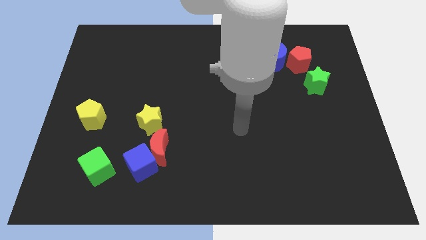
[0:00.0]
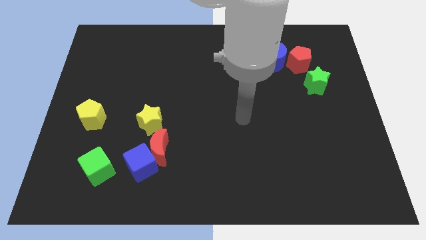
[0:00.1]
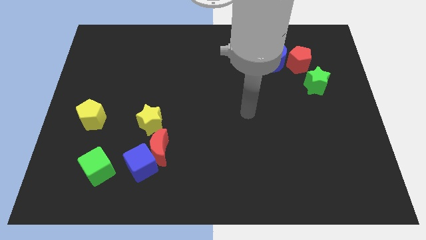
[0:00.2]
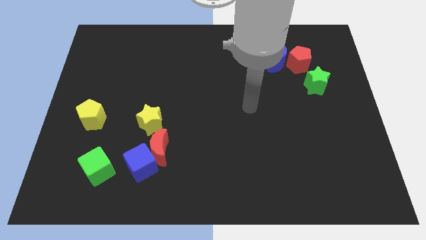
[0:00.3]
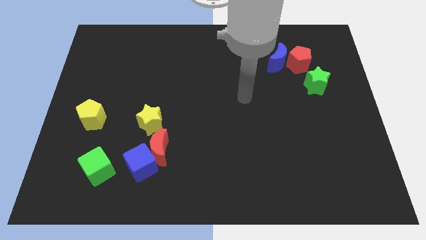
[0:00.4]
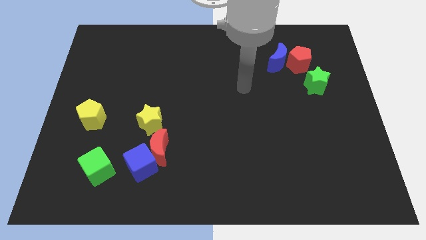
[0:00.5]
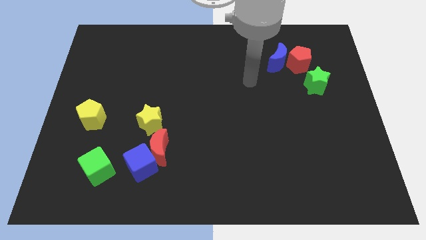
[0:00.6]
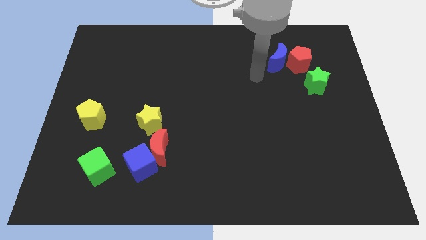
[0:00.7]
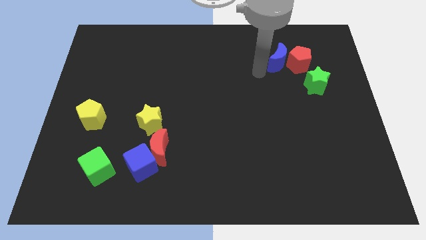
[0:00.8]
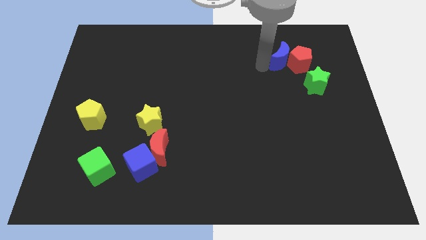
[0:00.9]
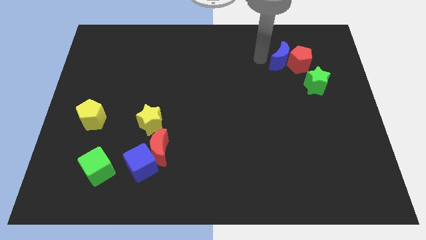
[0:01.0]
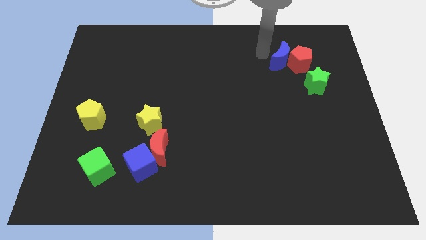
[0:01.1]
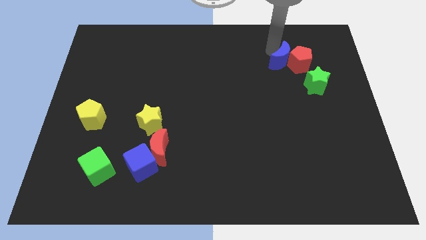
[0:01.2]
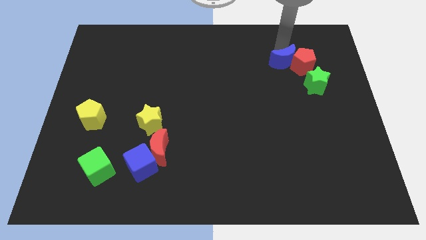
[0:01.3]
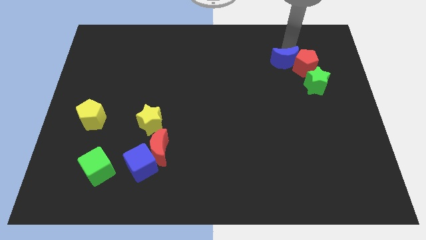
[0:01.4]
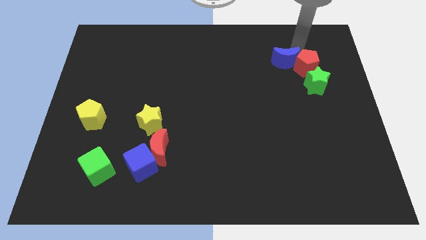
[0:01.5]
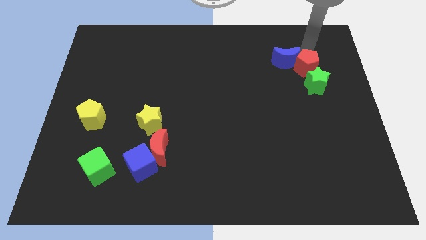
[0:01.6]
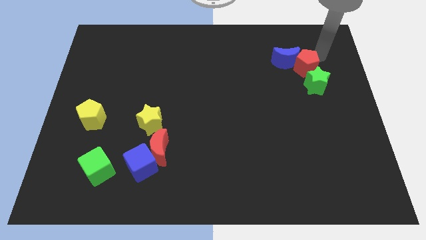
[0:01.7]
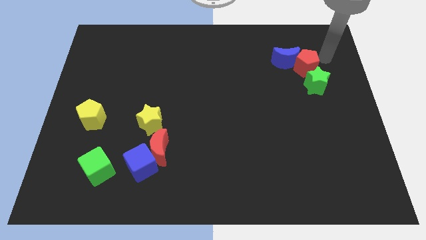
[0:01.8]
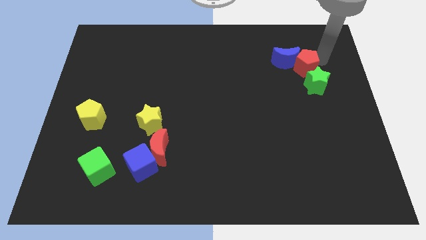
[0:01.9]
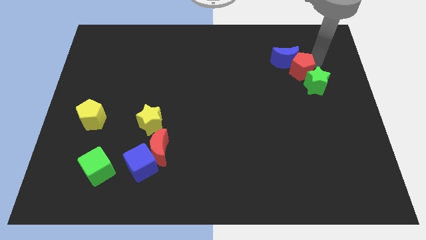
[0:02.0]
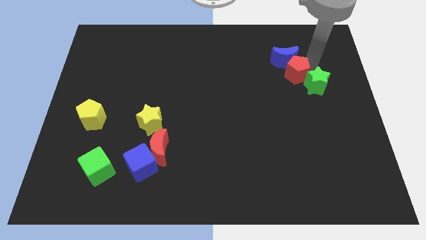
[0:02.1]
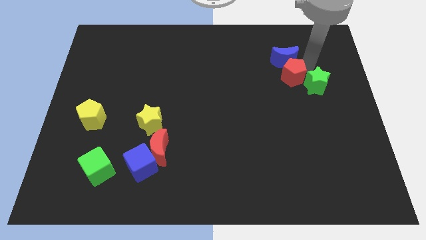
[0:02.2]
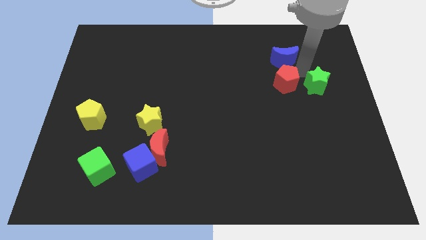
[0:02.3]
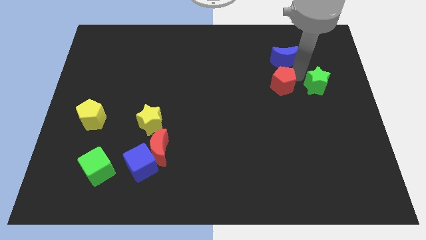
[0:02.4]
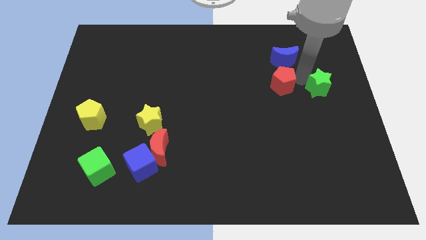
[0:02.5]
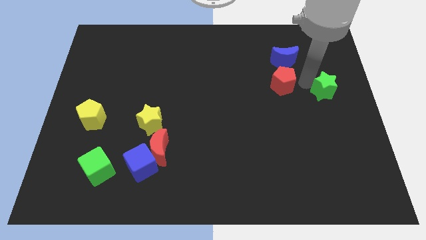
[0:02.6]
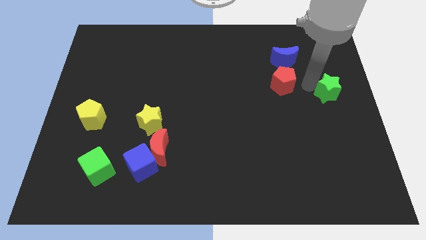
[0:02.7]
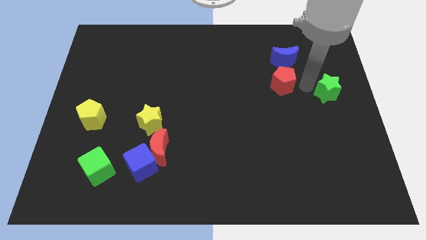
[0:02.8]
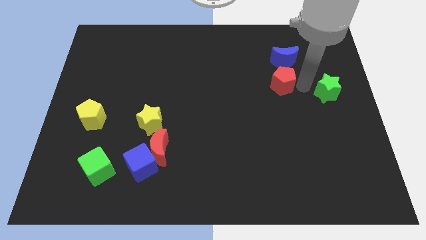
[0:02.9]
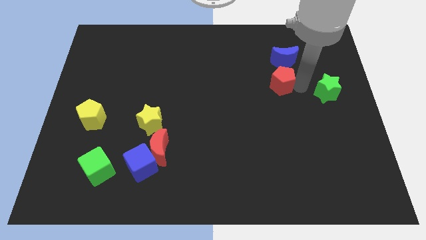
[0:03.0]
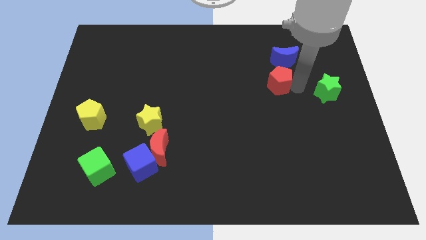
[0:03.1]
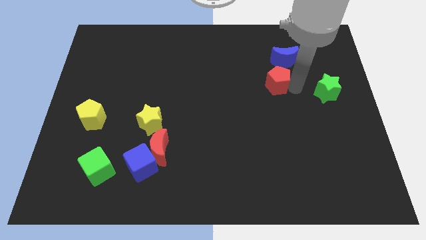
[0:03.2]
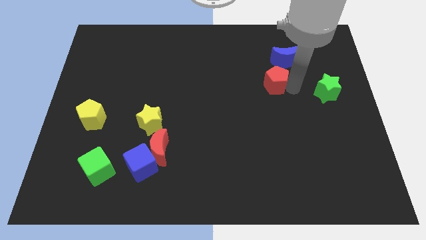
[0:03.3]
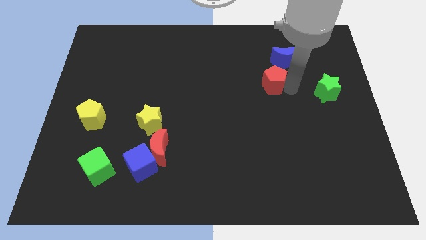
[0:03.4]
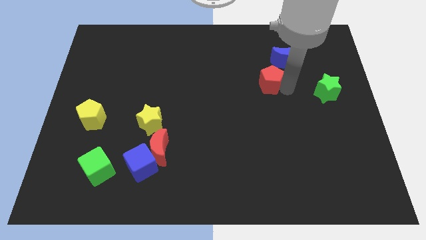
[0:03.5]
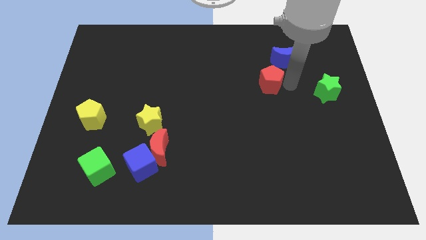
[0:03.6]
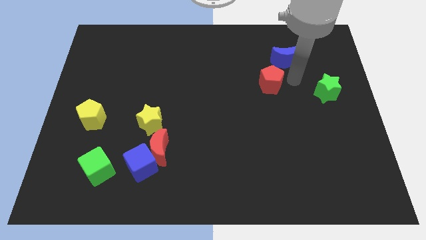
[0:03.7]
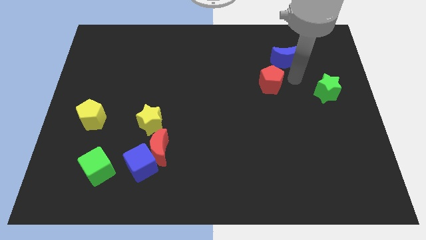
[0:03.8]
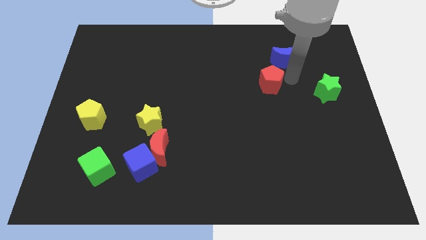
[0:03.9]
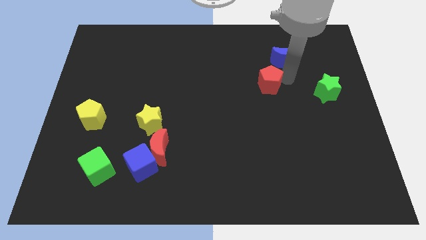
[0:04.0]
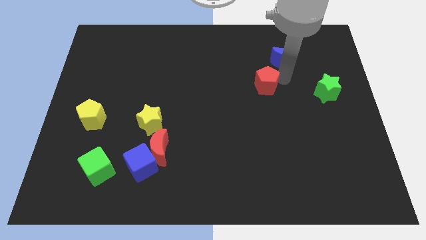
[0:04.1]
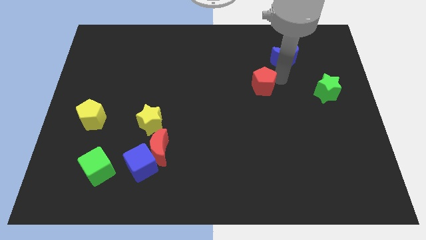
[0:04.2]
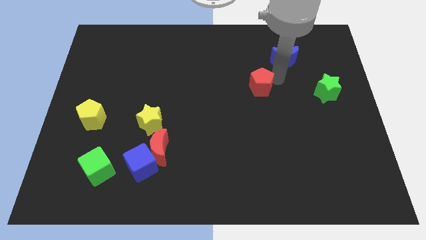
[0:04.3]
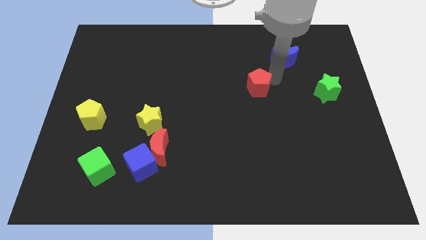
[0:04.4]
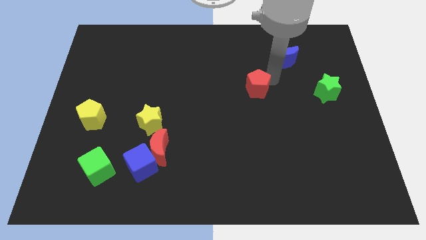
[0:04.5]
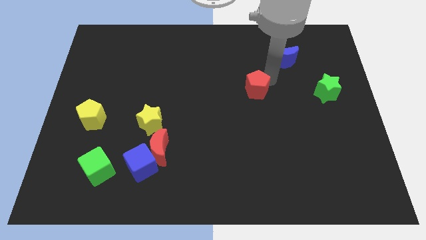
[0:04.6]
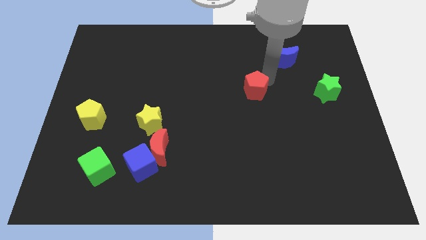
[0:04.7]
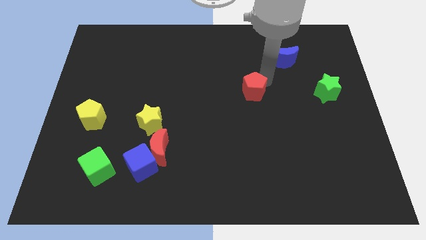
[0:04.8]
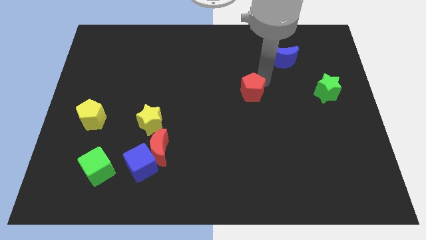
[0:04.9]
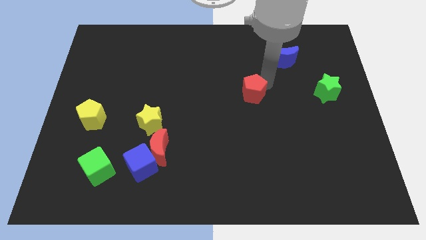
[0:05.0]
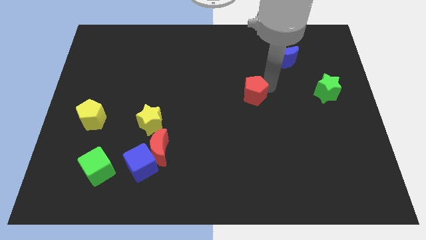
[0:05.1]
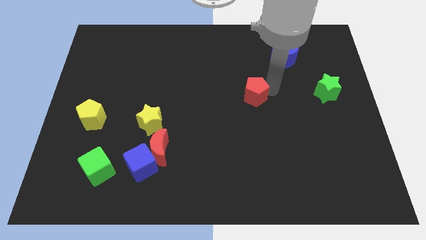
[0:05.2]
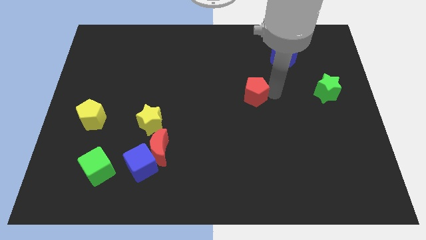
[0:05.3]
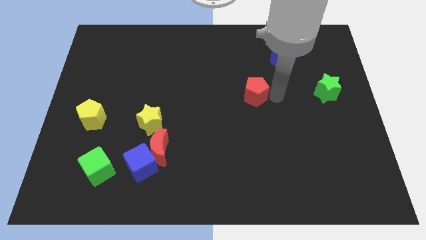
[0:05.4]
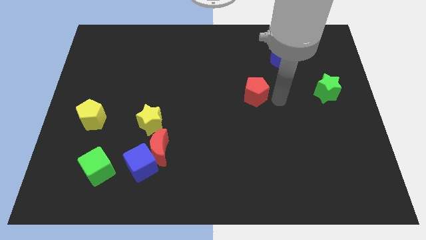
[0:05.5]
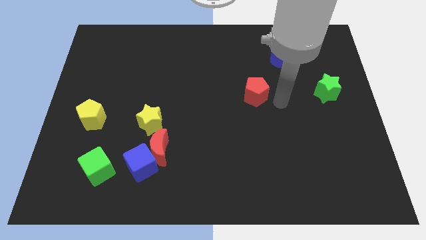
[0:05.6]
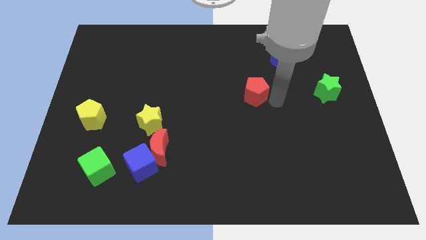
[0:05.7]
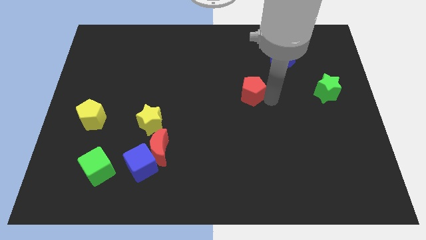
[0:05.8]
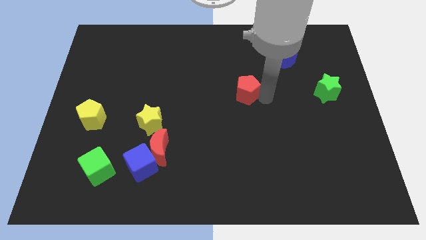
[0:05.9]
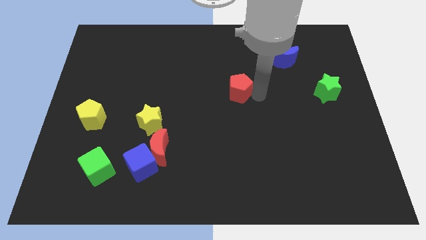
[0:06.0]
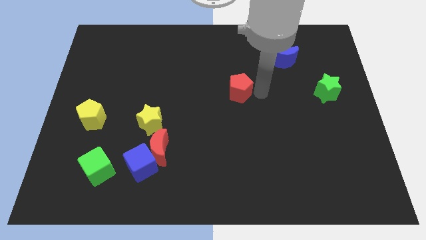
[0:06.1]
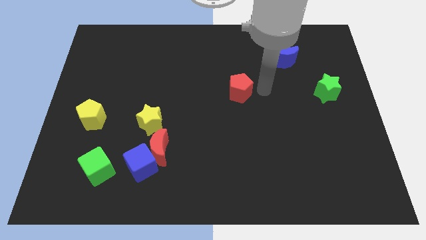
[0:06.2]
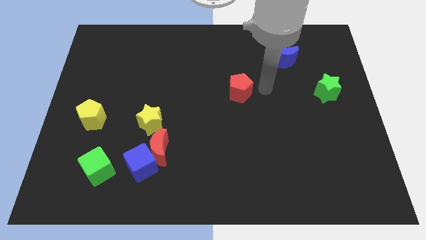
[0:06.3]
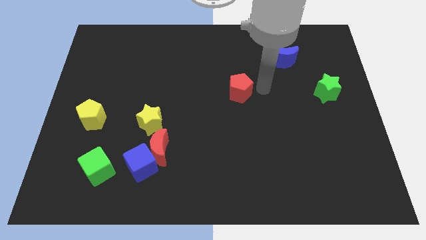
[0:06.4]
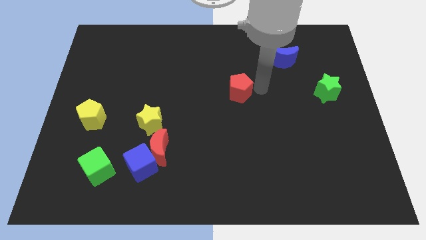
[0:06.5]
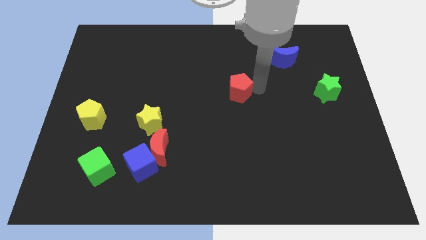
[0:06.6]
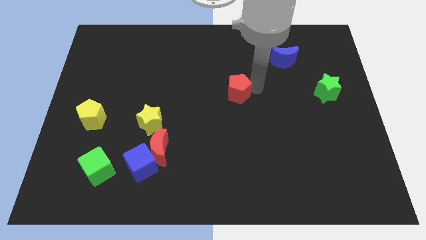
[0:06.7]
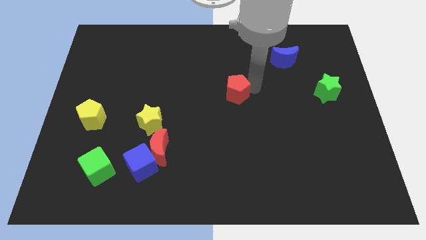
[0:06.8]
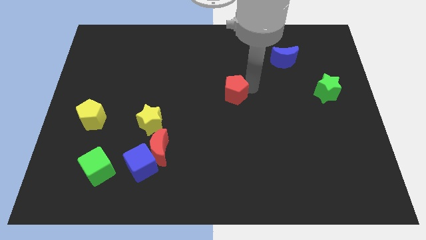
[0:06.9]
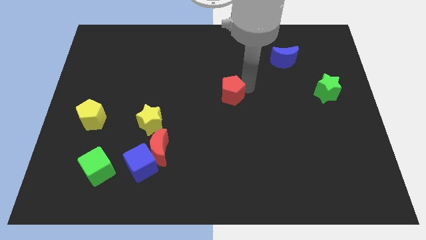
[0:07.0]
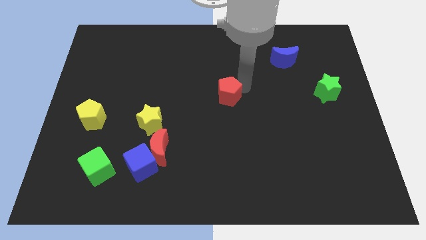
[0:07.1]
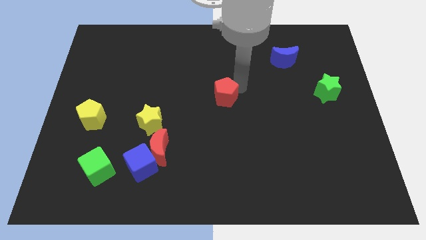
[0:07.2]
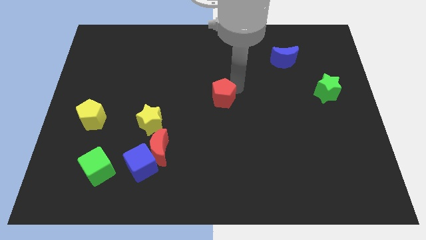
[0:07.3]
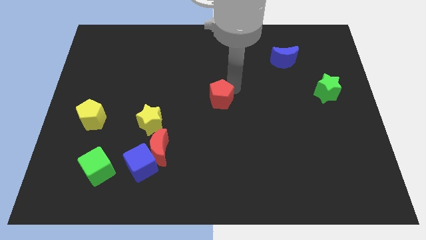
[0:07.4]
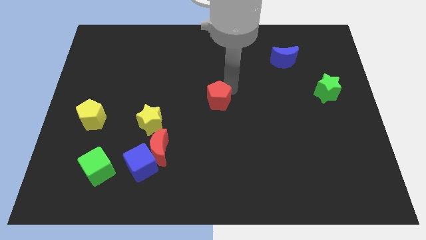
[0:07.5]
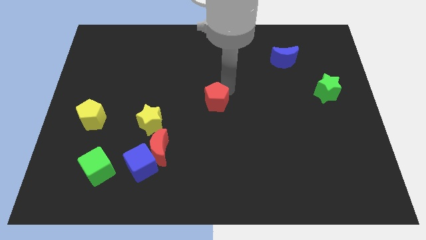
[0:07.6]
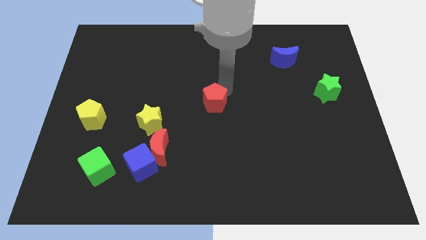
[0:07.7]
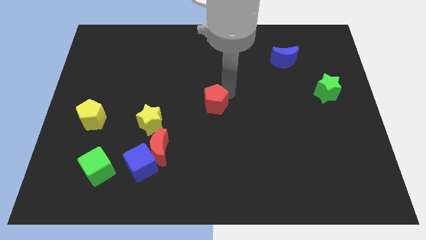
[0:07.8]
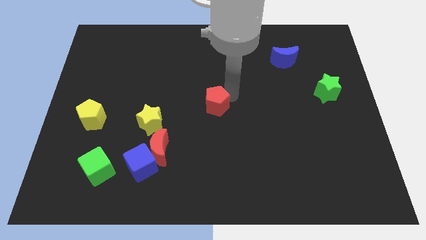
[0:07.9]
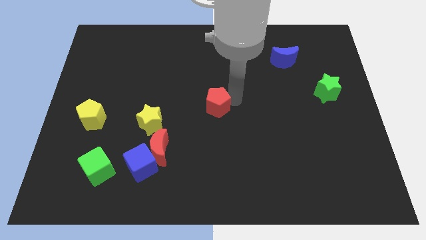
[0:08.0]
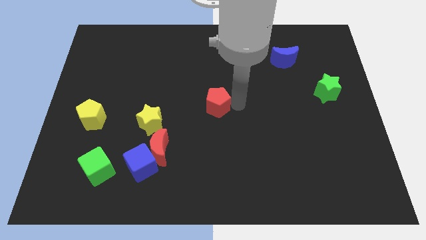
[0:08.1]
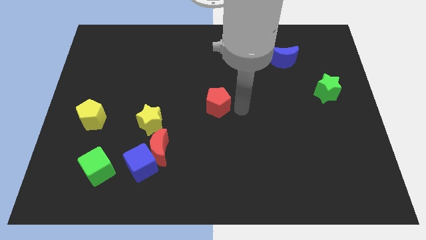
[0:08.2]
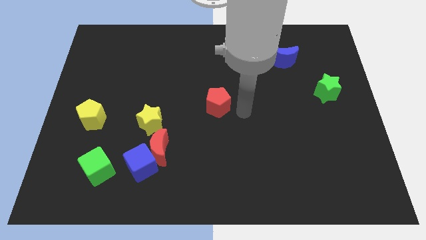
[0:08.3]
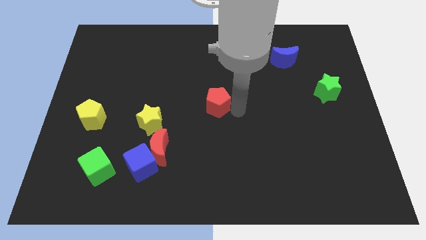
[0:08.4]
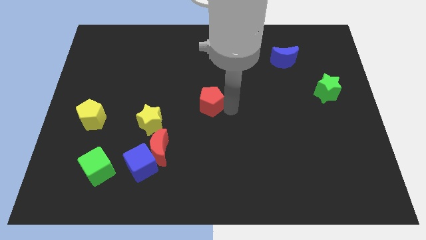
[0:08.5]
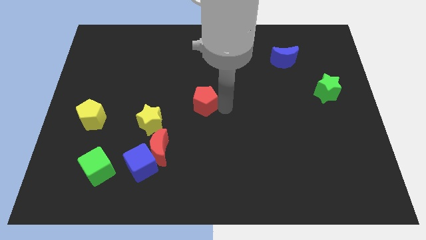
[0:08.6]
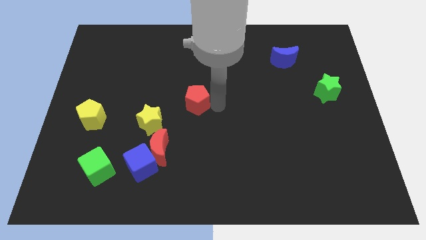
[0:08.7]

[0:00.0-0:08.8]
put the red pentagon diagonally up and to the right of the yellow star
